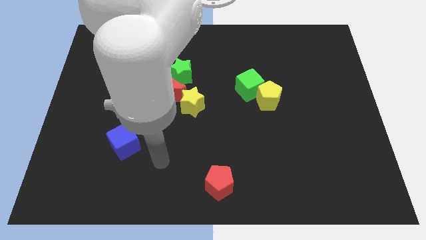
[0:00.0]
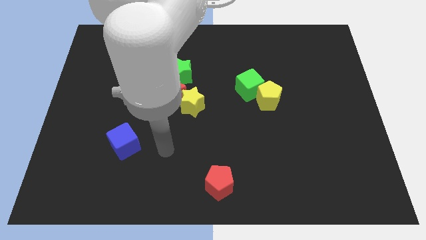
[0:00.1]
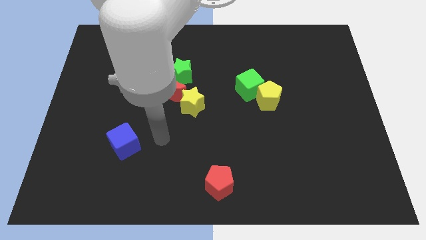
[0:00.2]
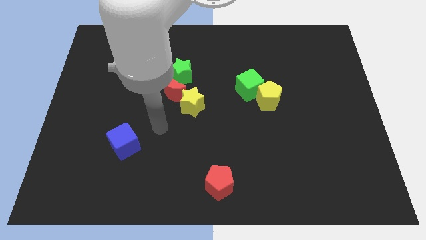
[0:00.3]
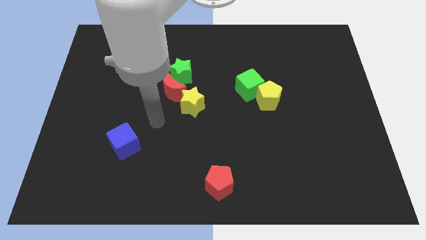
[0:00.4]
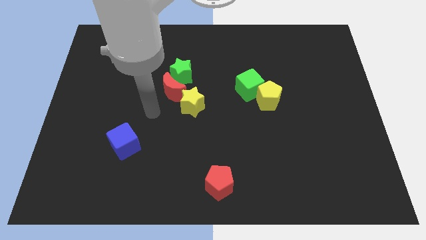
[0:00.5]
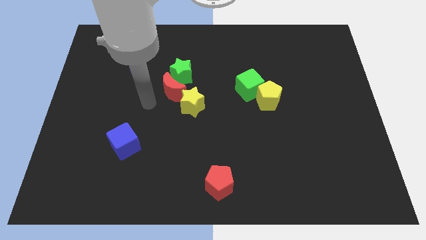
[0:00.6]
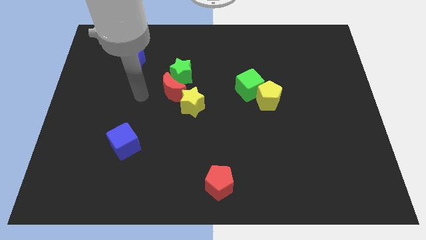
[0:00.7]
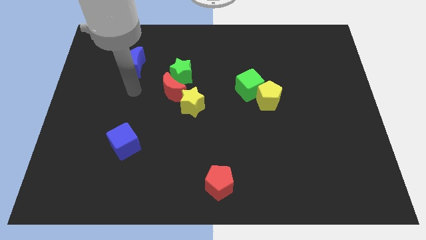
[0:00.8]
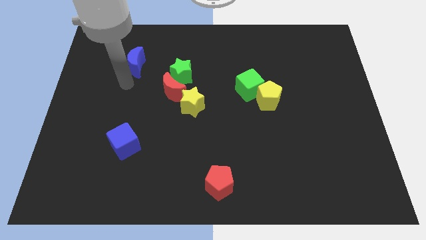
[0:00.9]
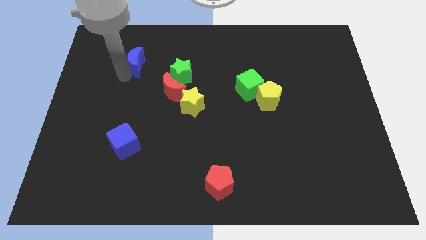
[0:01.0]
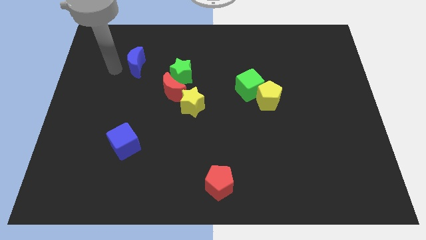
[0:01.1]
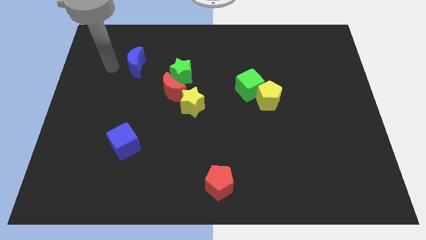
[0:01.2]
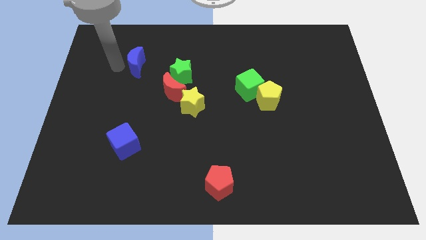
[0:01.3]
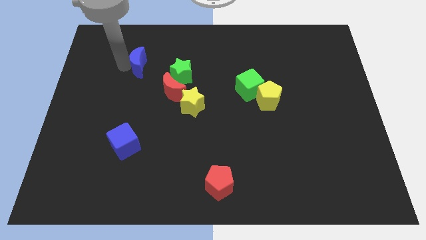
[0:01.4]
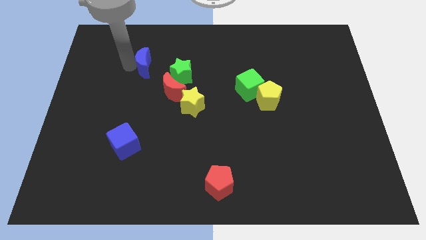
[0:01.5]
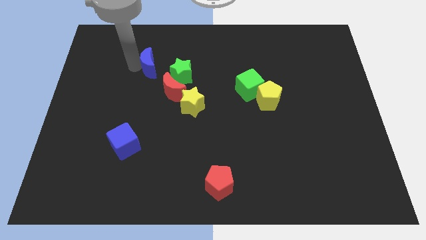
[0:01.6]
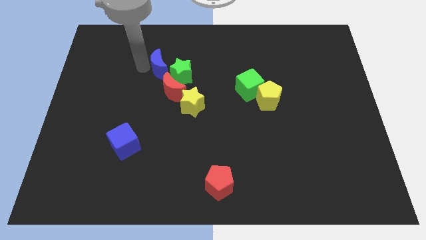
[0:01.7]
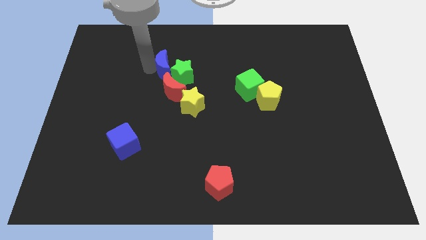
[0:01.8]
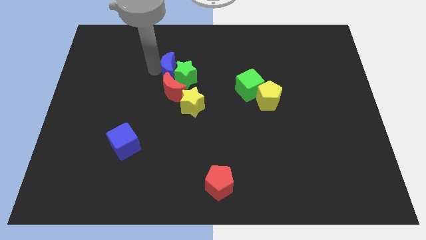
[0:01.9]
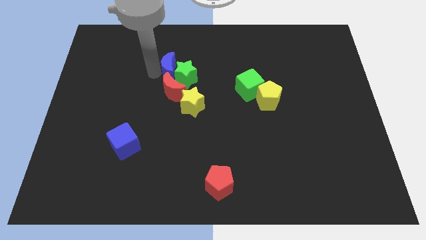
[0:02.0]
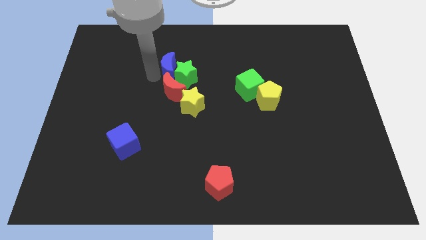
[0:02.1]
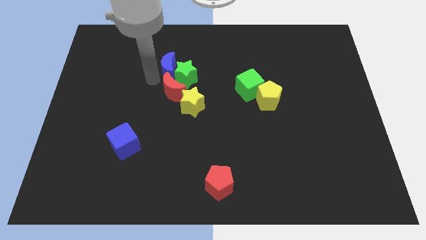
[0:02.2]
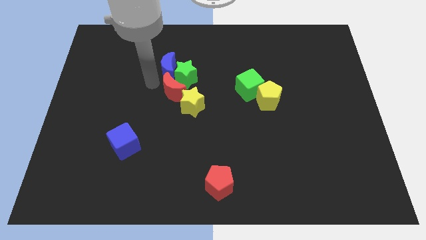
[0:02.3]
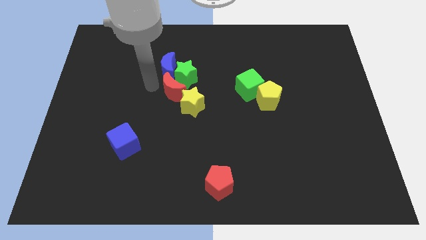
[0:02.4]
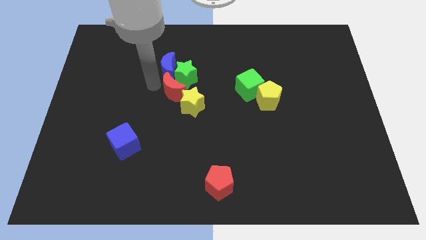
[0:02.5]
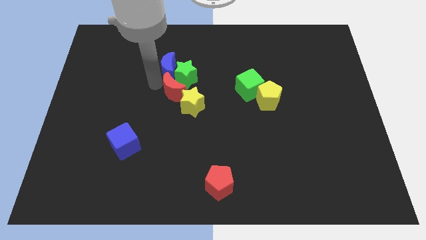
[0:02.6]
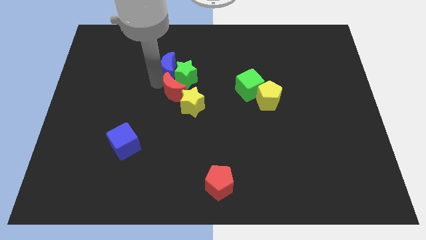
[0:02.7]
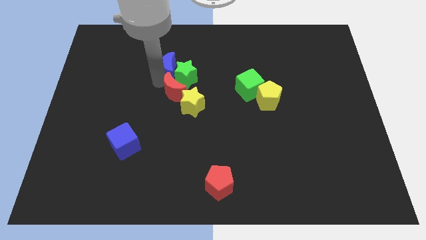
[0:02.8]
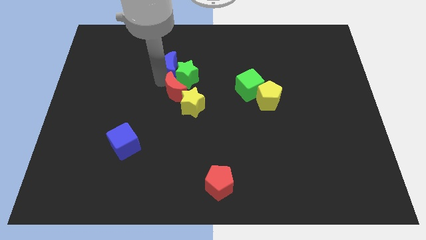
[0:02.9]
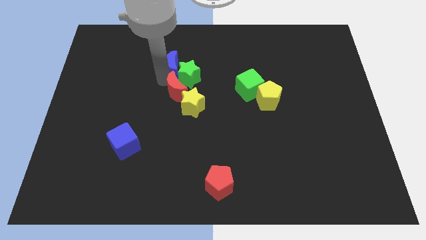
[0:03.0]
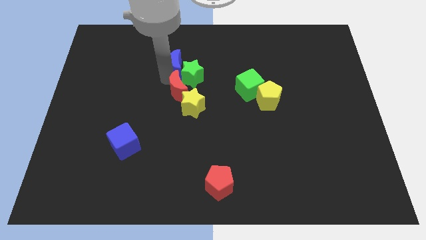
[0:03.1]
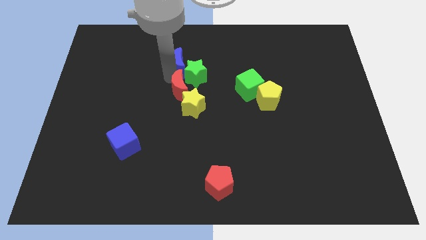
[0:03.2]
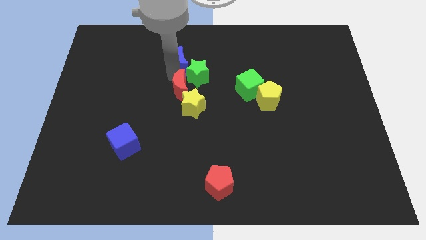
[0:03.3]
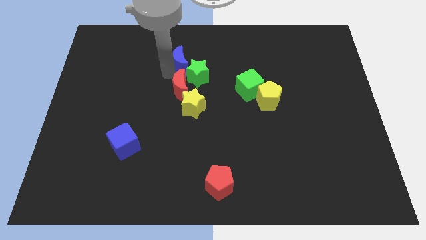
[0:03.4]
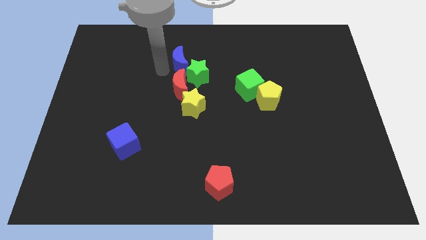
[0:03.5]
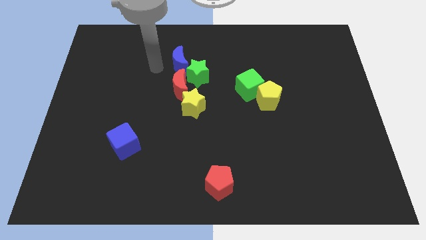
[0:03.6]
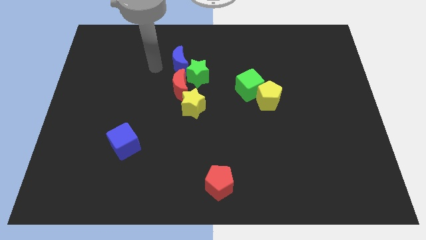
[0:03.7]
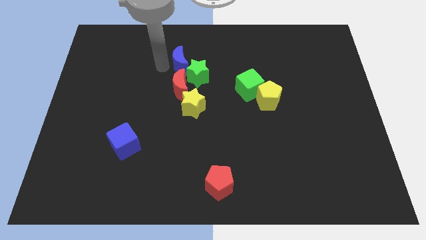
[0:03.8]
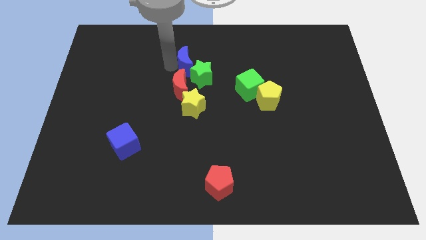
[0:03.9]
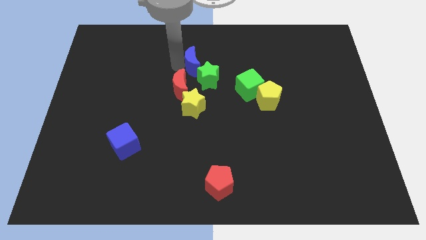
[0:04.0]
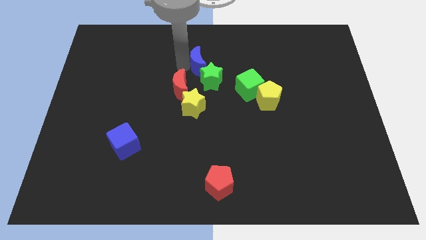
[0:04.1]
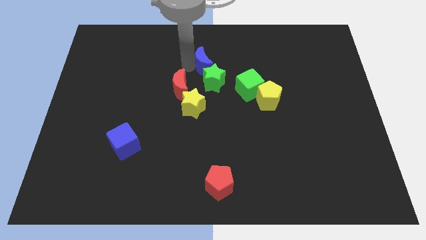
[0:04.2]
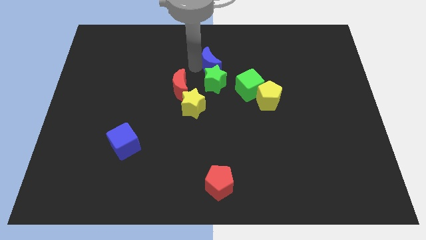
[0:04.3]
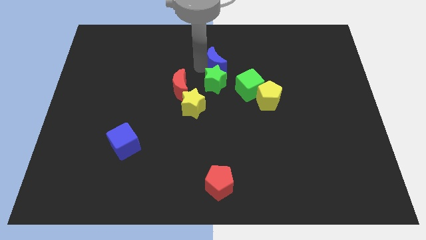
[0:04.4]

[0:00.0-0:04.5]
move the blue moon to the right

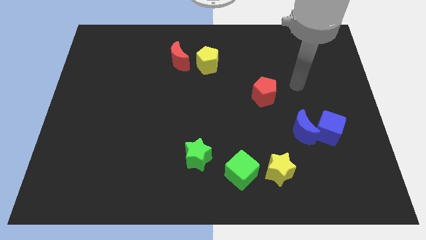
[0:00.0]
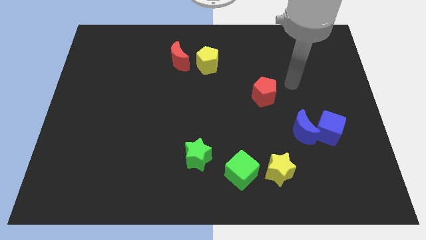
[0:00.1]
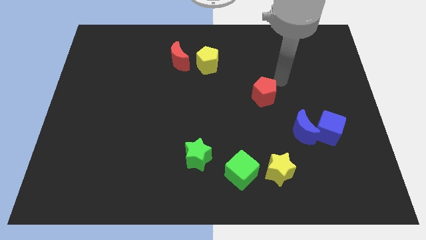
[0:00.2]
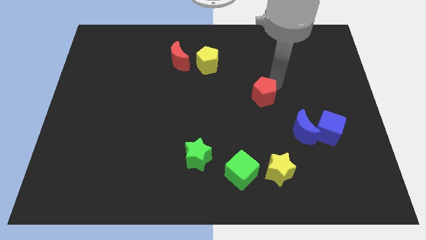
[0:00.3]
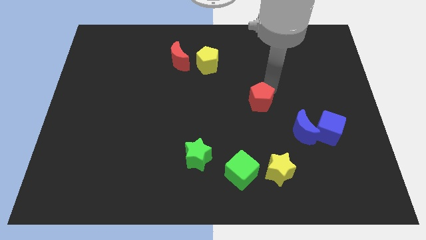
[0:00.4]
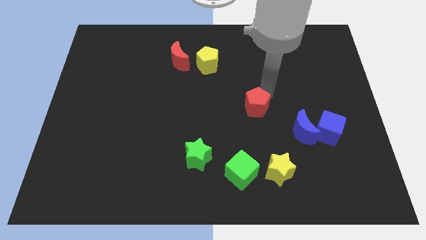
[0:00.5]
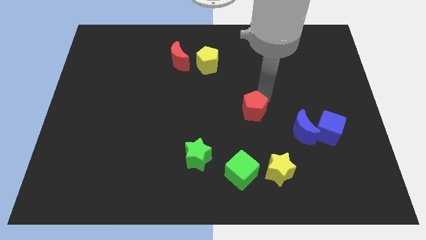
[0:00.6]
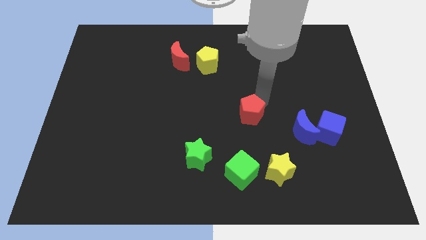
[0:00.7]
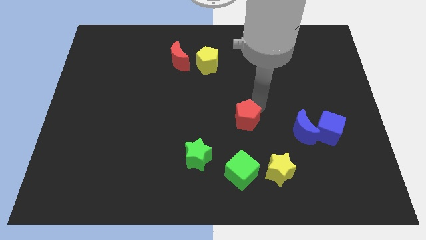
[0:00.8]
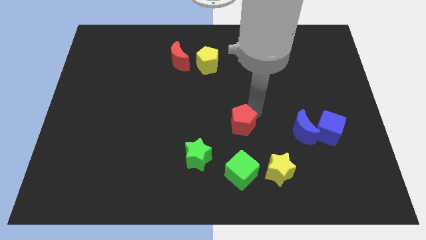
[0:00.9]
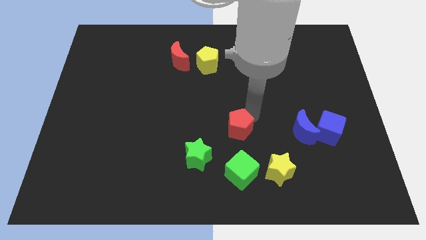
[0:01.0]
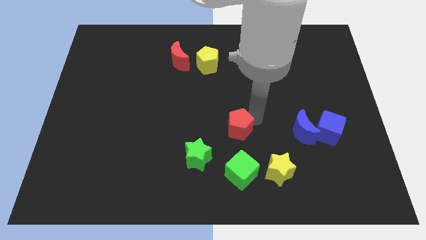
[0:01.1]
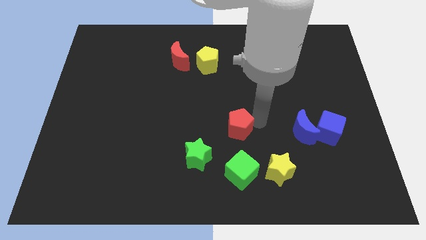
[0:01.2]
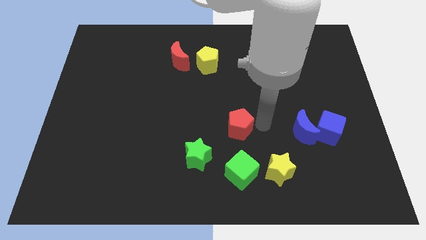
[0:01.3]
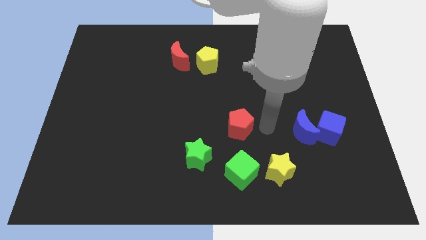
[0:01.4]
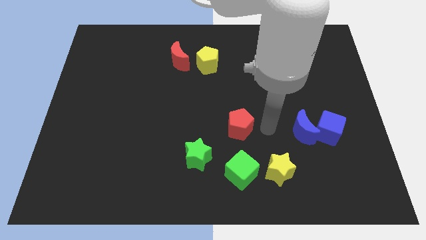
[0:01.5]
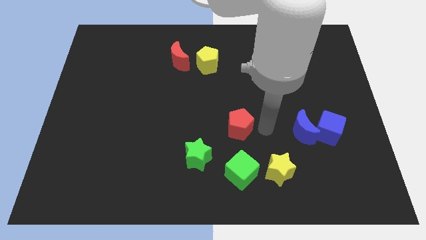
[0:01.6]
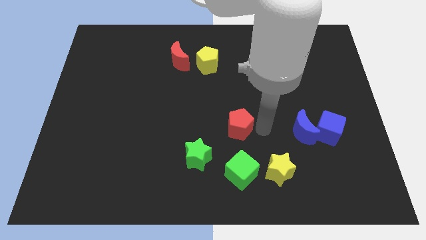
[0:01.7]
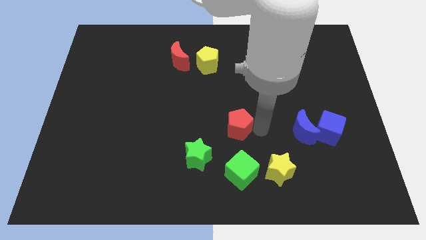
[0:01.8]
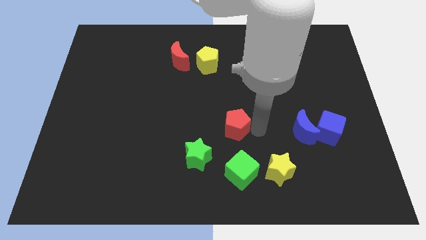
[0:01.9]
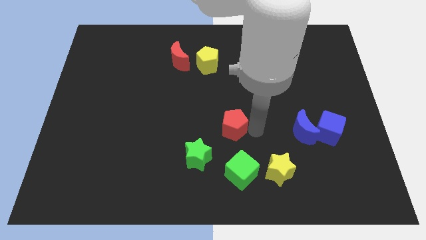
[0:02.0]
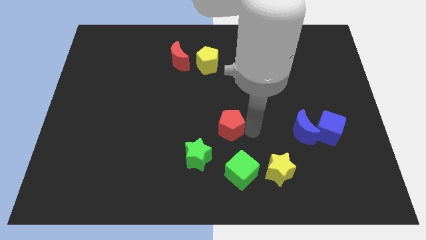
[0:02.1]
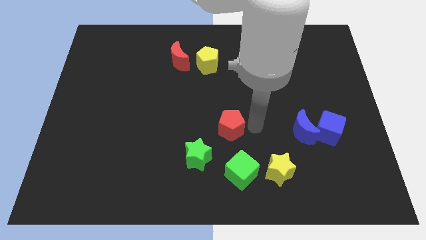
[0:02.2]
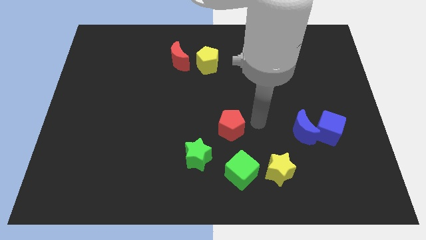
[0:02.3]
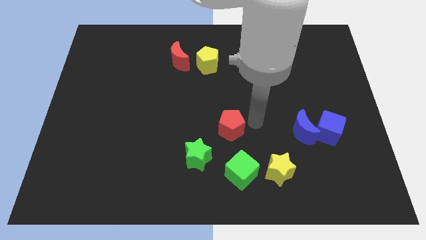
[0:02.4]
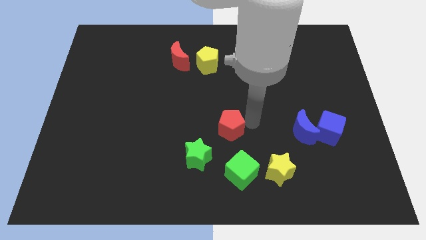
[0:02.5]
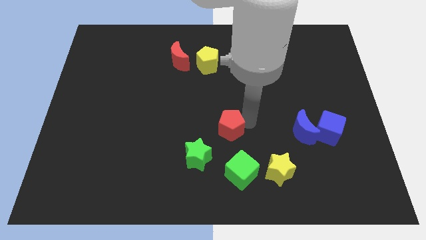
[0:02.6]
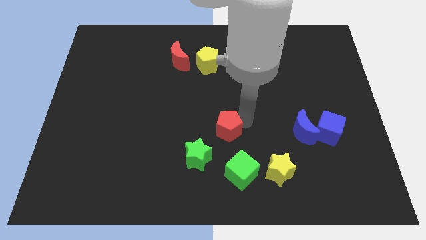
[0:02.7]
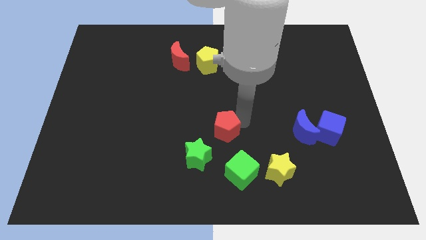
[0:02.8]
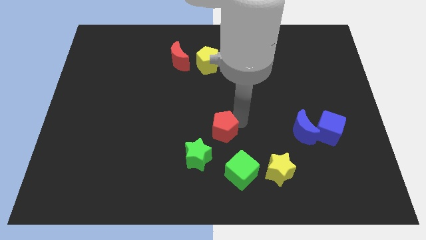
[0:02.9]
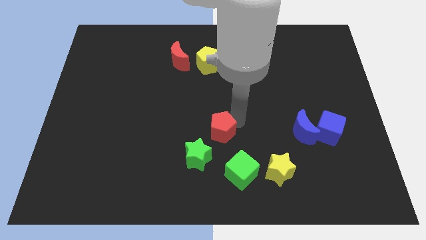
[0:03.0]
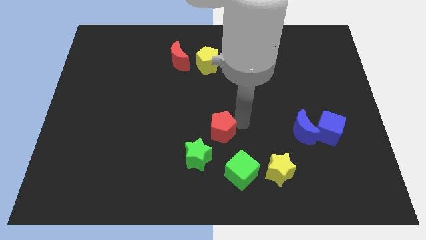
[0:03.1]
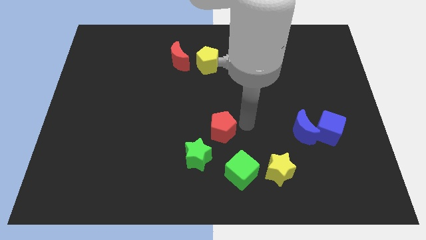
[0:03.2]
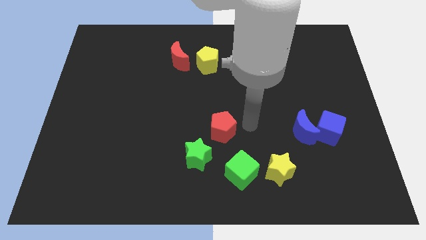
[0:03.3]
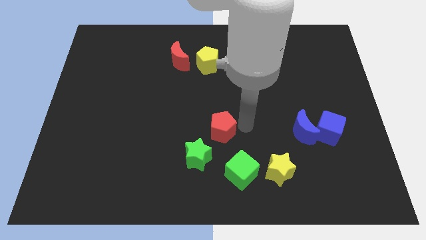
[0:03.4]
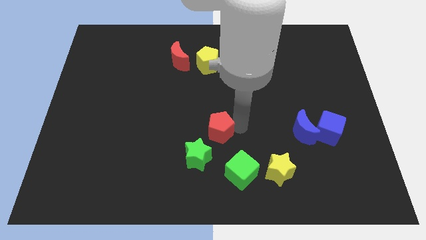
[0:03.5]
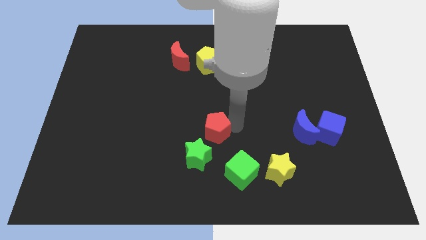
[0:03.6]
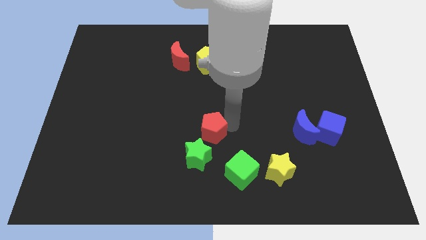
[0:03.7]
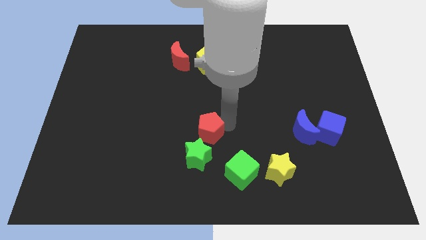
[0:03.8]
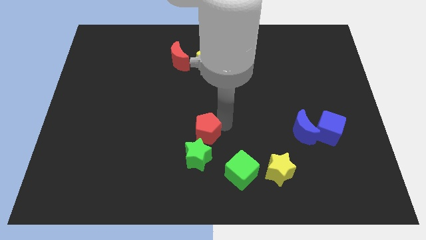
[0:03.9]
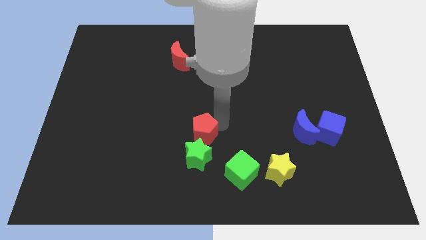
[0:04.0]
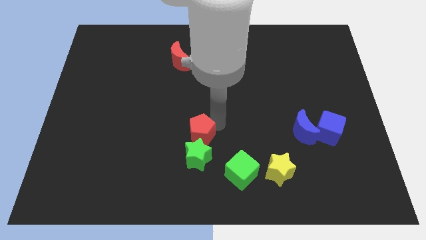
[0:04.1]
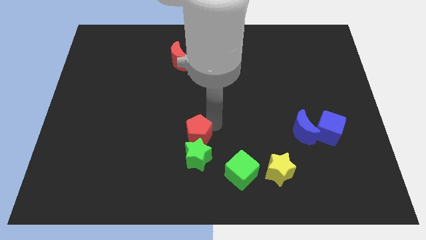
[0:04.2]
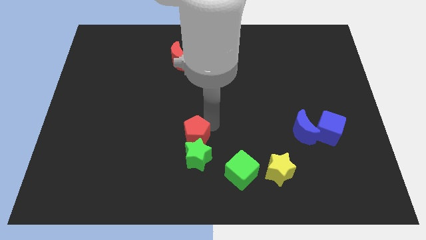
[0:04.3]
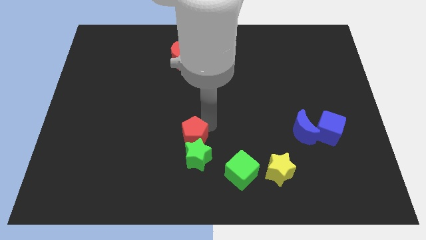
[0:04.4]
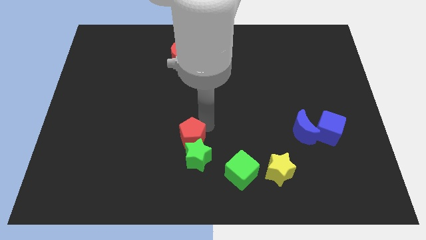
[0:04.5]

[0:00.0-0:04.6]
slide the red pentagon downwards and left
